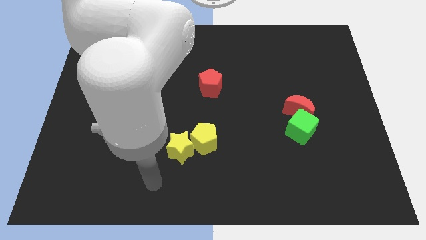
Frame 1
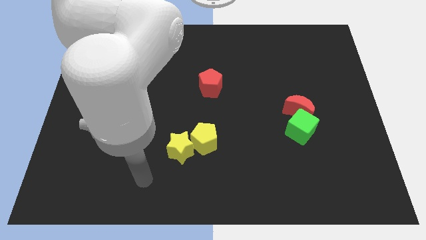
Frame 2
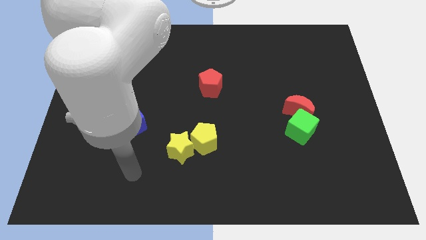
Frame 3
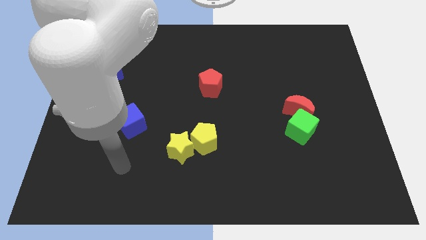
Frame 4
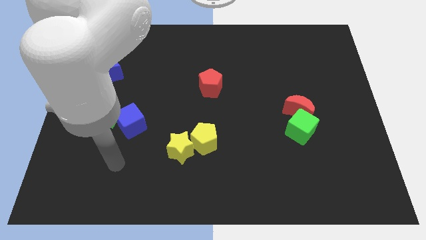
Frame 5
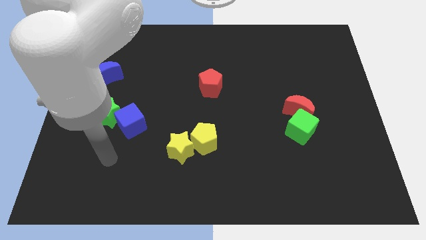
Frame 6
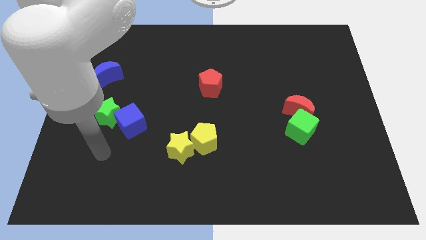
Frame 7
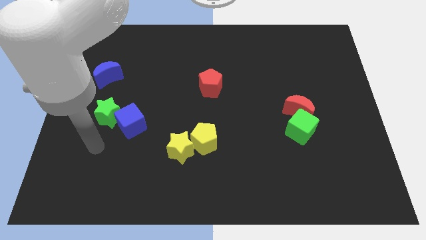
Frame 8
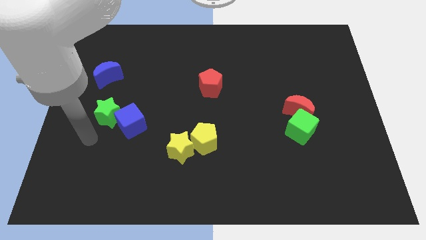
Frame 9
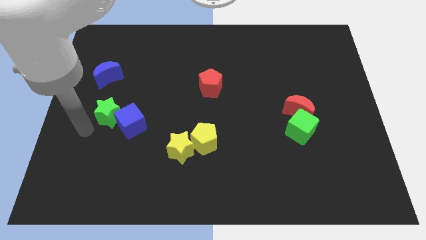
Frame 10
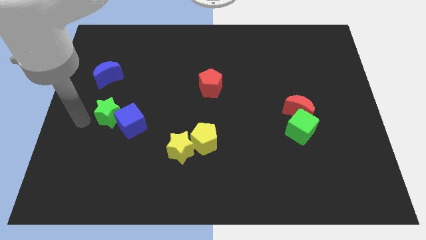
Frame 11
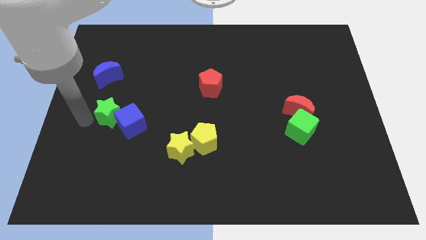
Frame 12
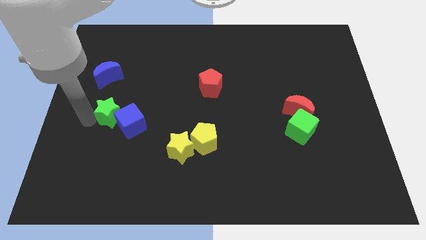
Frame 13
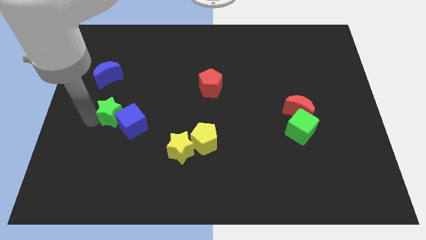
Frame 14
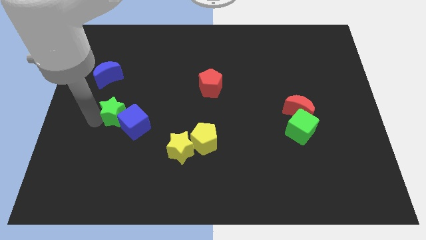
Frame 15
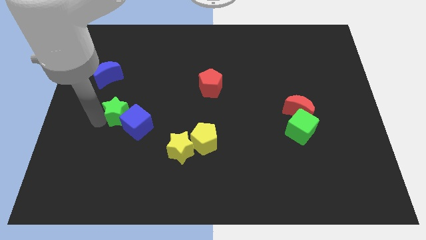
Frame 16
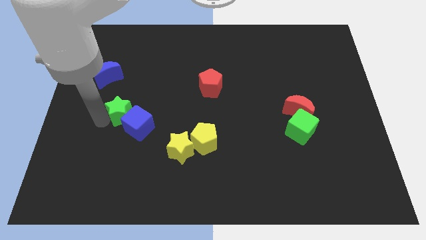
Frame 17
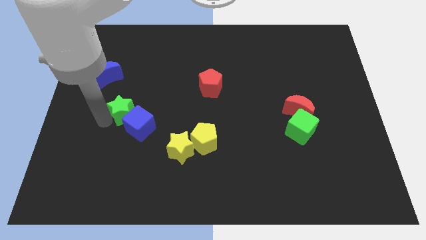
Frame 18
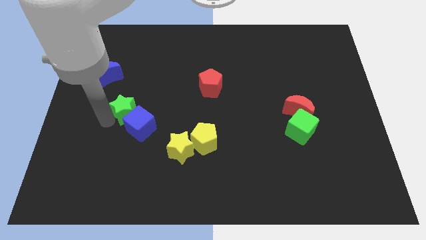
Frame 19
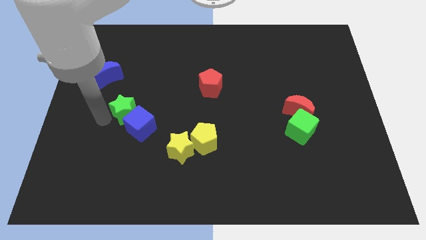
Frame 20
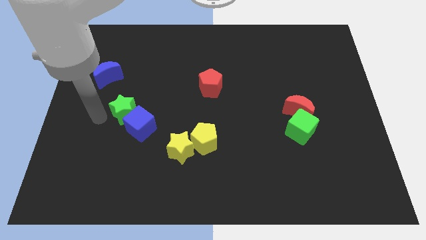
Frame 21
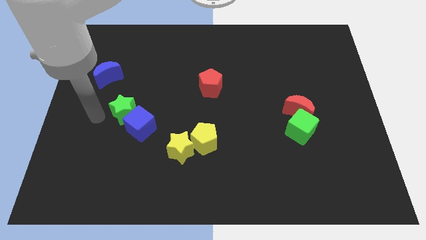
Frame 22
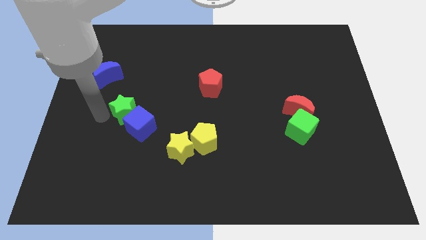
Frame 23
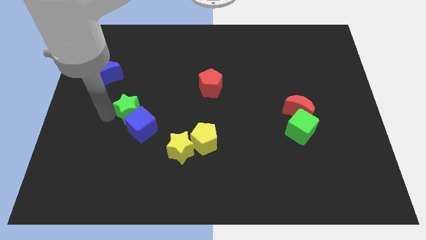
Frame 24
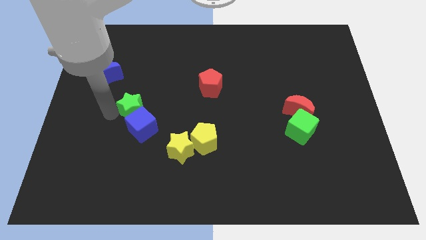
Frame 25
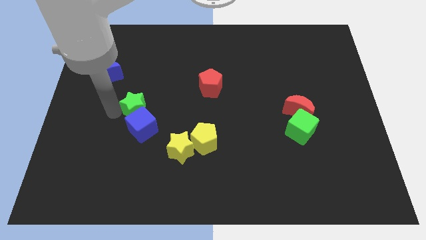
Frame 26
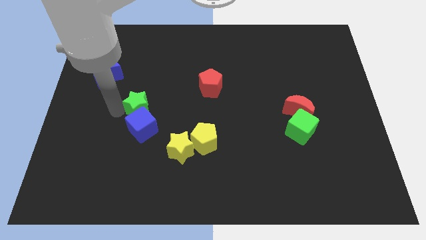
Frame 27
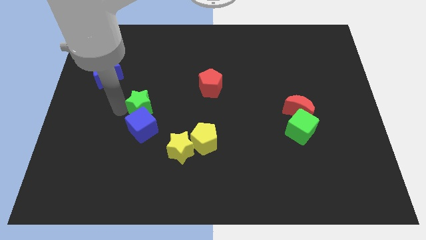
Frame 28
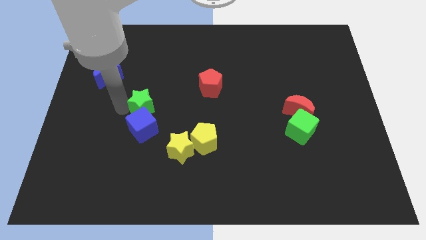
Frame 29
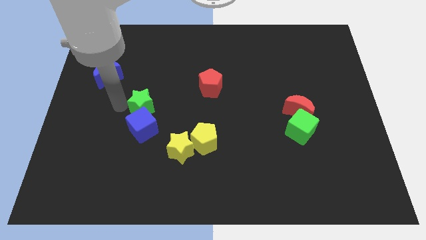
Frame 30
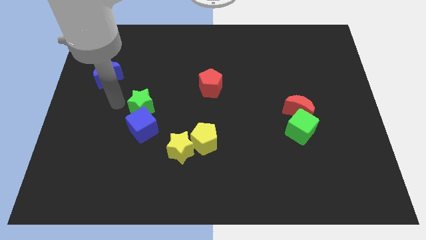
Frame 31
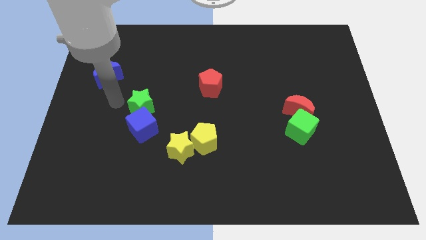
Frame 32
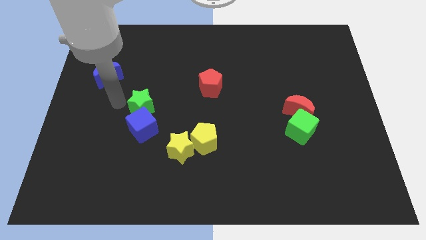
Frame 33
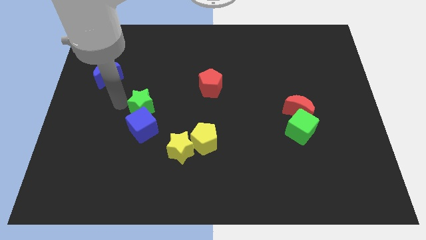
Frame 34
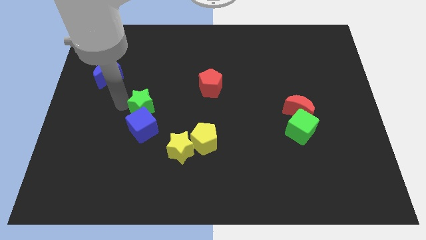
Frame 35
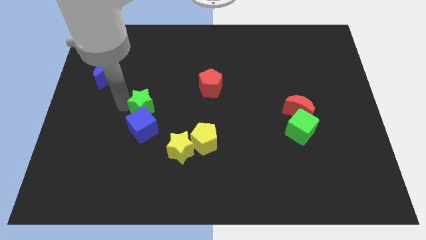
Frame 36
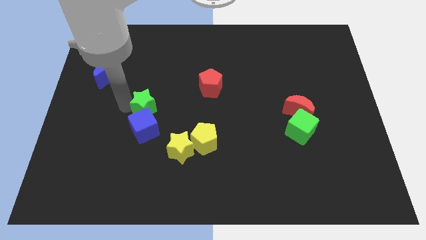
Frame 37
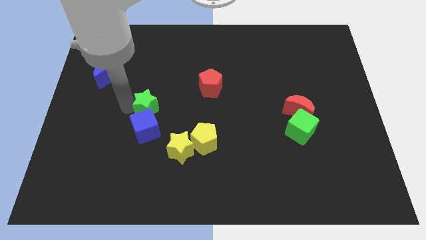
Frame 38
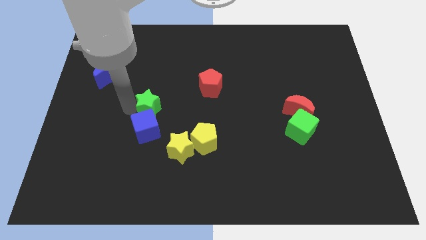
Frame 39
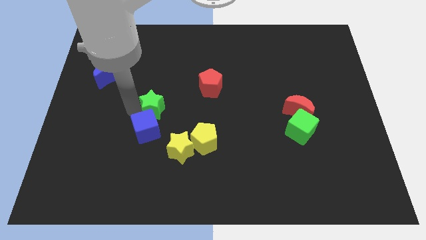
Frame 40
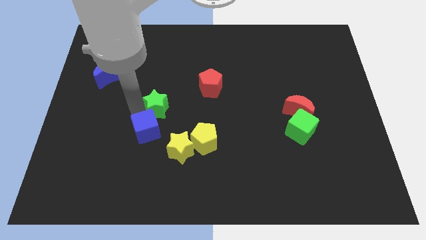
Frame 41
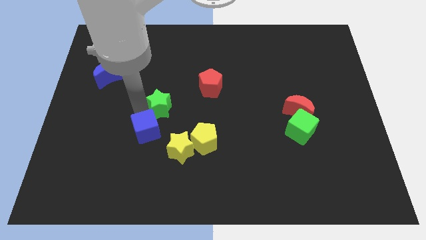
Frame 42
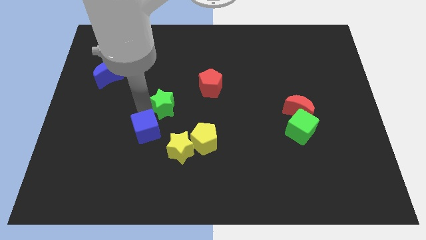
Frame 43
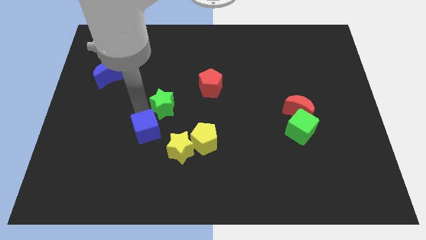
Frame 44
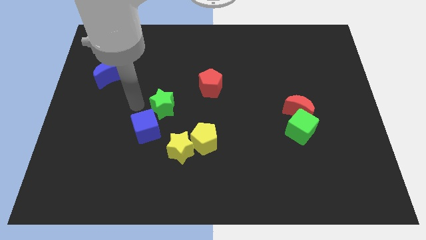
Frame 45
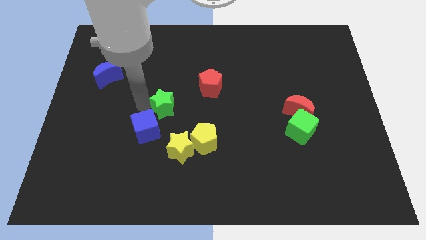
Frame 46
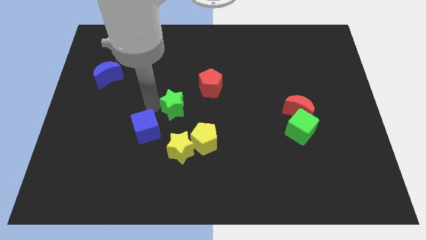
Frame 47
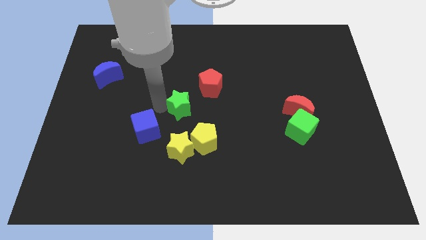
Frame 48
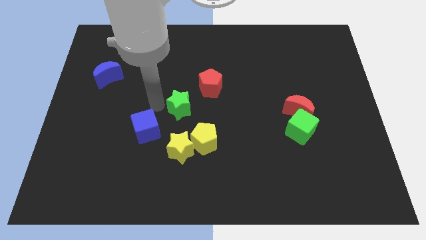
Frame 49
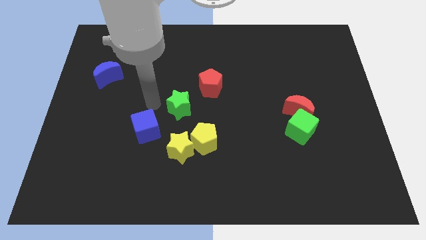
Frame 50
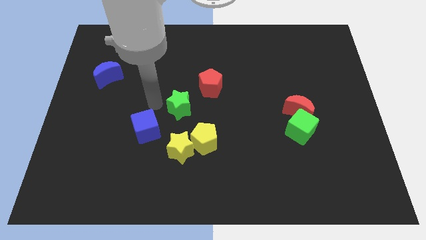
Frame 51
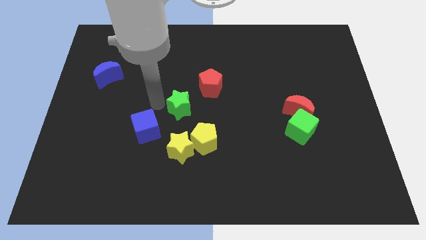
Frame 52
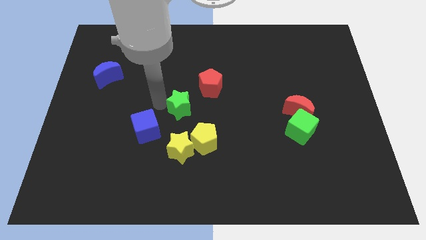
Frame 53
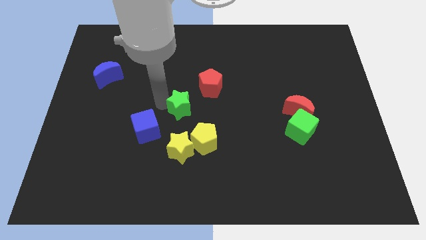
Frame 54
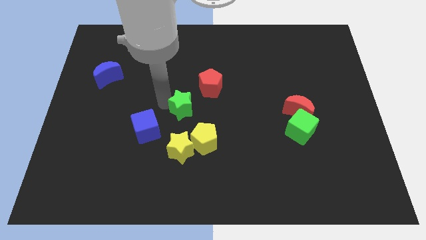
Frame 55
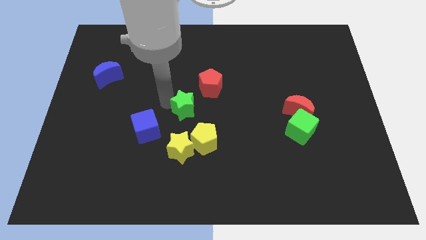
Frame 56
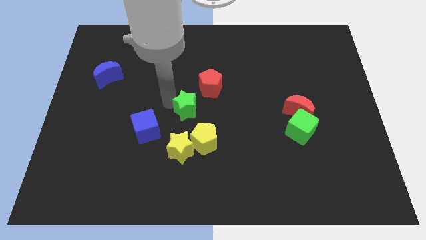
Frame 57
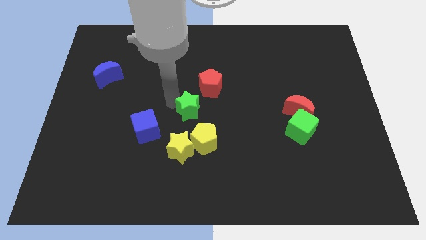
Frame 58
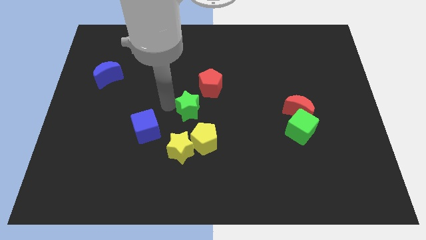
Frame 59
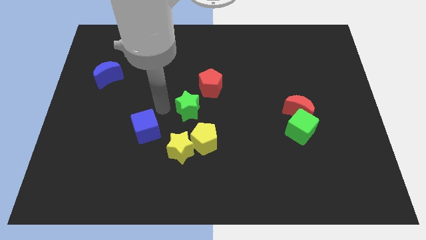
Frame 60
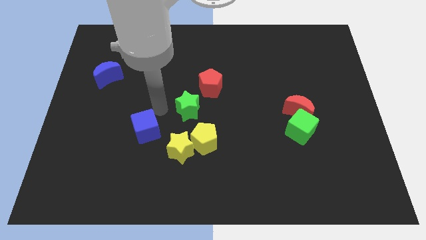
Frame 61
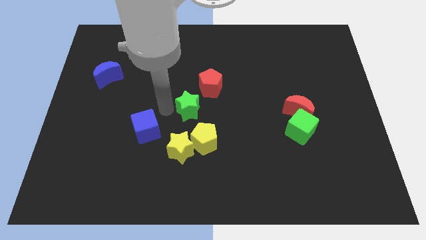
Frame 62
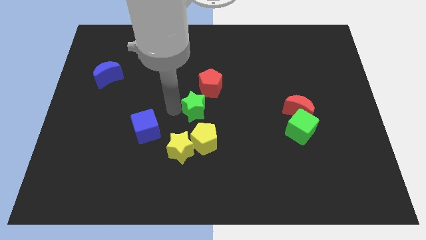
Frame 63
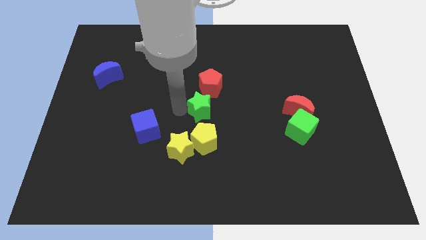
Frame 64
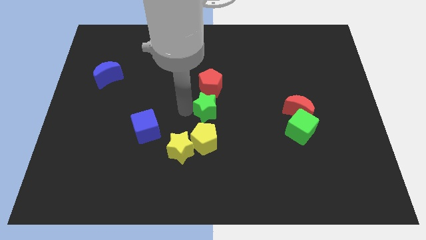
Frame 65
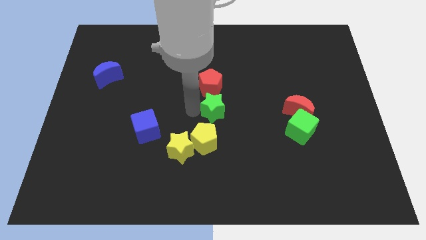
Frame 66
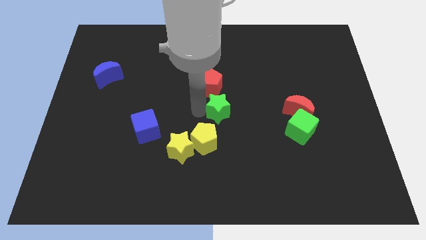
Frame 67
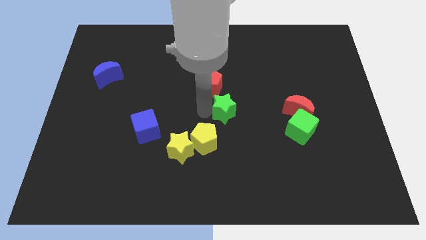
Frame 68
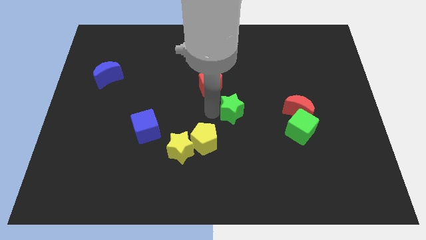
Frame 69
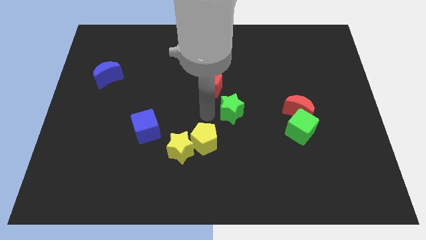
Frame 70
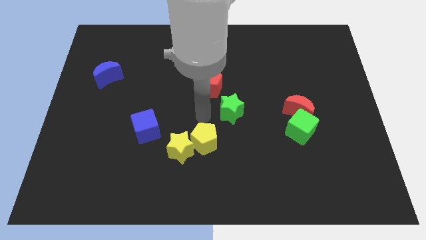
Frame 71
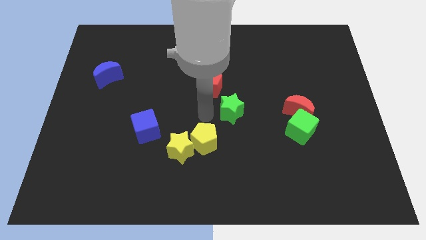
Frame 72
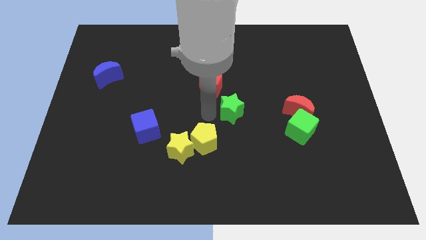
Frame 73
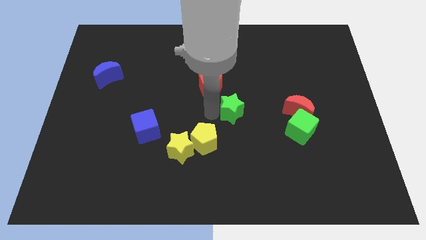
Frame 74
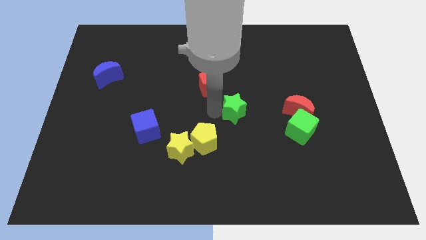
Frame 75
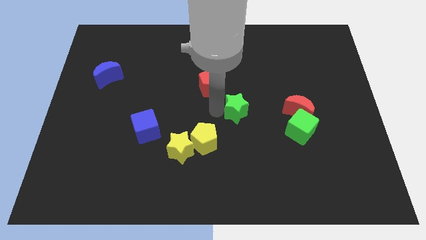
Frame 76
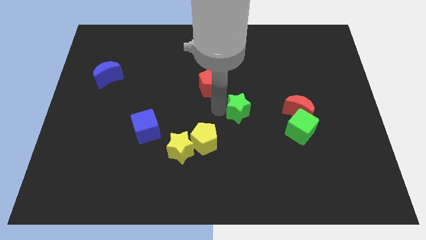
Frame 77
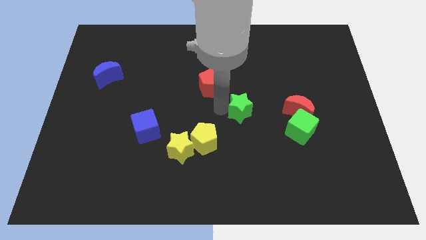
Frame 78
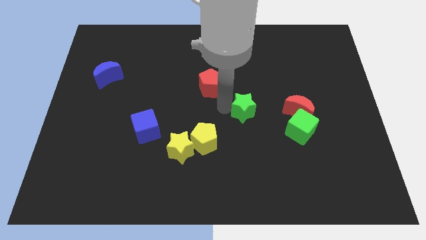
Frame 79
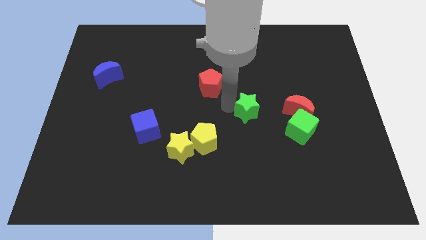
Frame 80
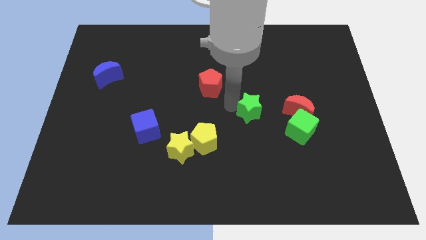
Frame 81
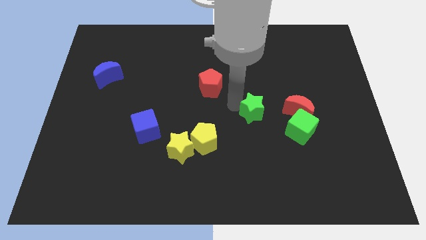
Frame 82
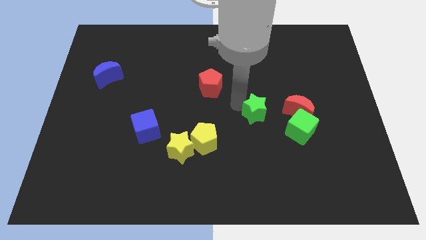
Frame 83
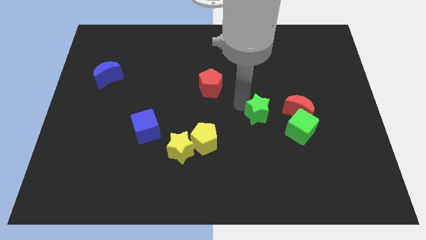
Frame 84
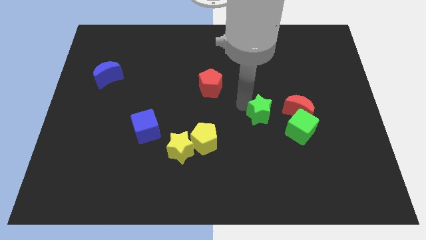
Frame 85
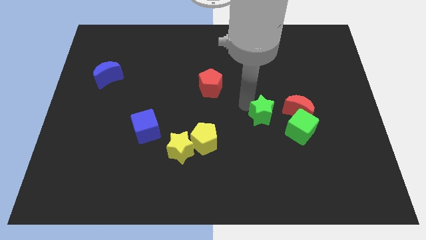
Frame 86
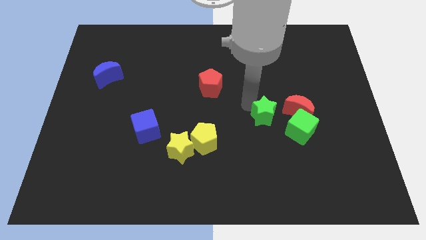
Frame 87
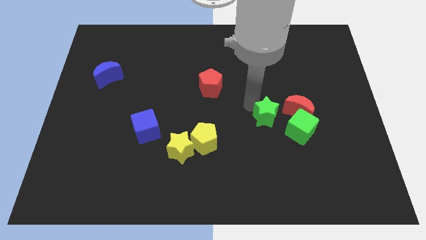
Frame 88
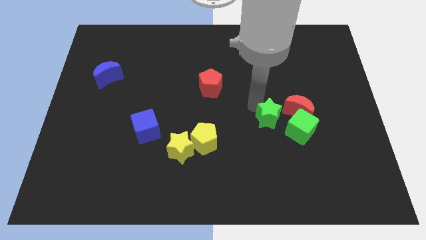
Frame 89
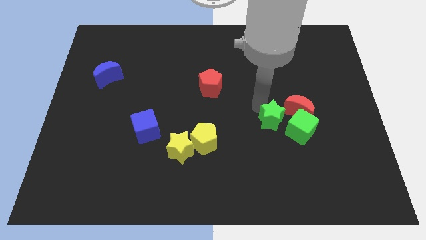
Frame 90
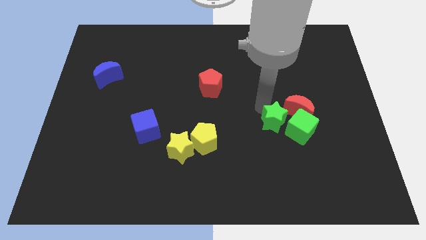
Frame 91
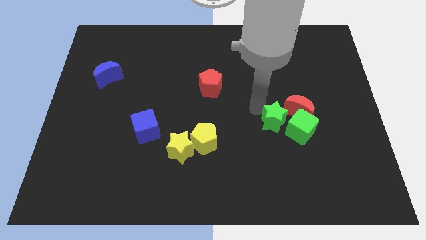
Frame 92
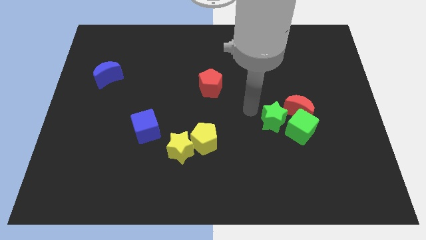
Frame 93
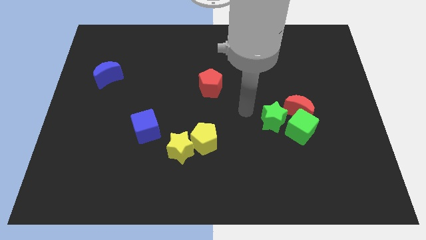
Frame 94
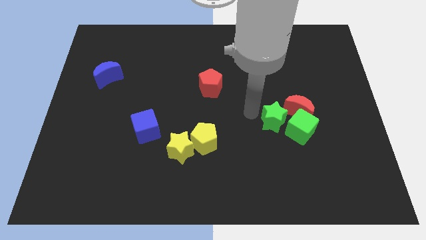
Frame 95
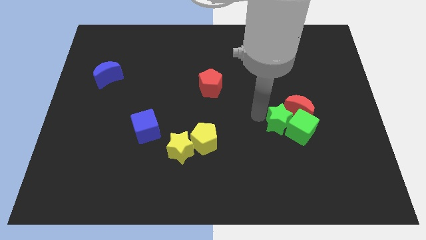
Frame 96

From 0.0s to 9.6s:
push the green star close to the green cube
